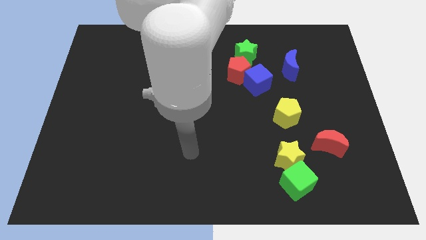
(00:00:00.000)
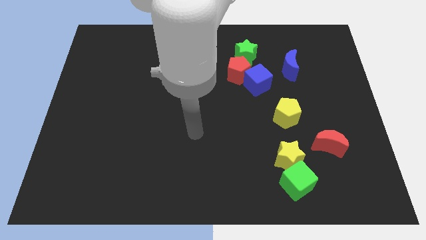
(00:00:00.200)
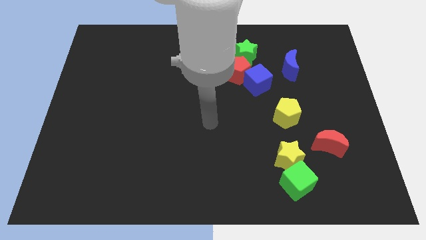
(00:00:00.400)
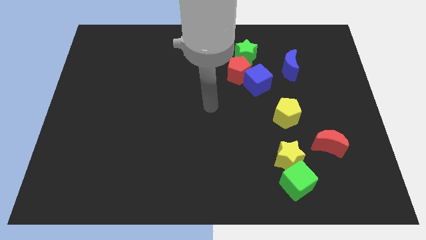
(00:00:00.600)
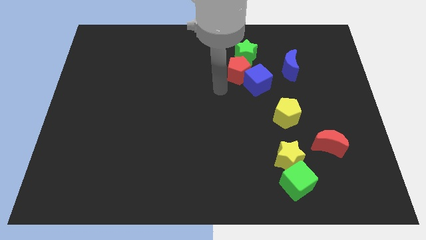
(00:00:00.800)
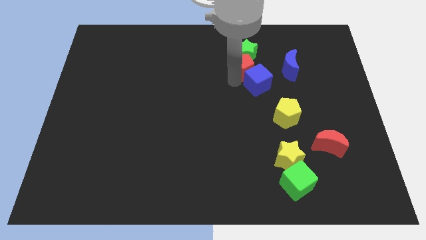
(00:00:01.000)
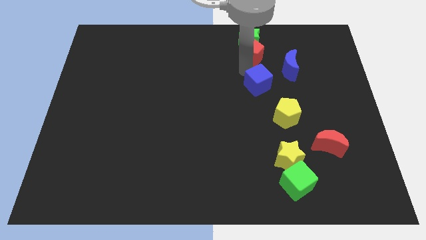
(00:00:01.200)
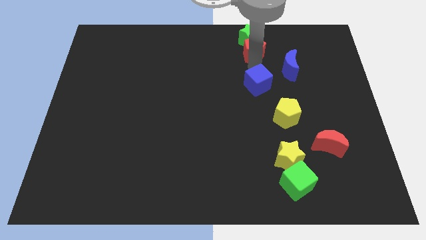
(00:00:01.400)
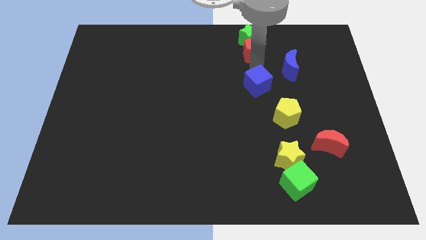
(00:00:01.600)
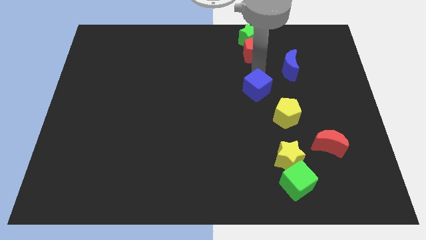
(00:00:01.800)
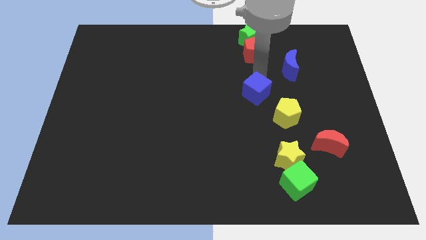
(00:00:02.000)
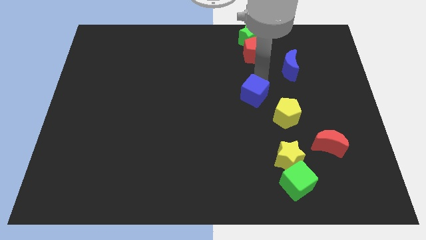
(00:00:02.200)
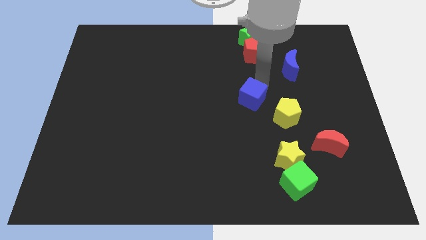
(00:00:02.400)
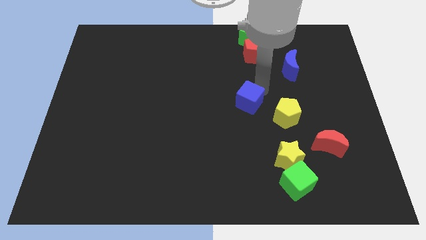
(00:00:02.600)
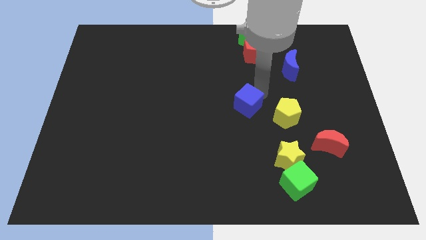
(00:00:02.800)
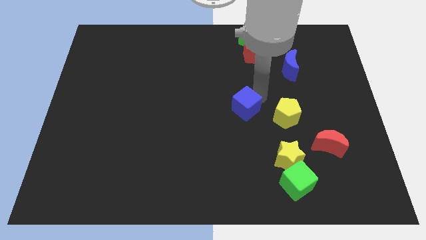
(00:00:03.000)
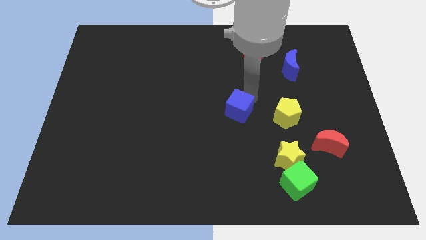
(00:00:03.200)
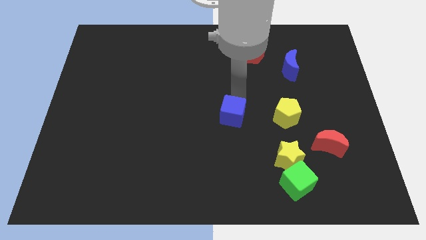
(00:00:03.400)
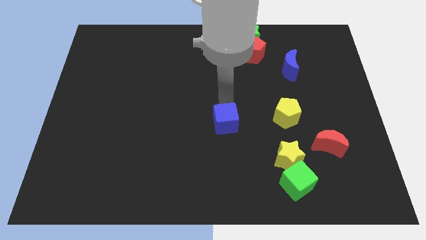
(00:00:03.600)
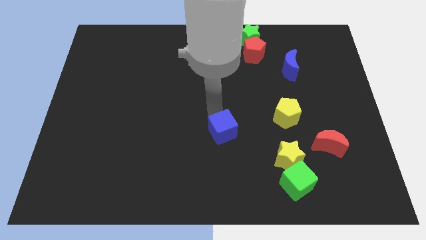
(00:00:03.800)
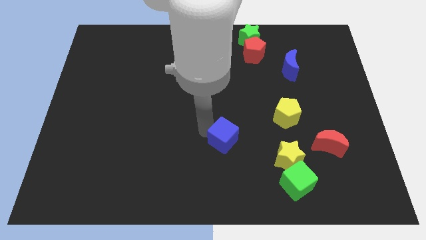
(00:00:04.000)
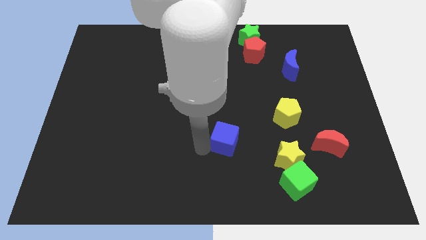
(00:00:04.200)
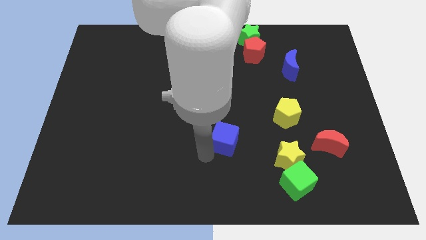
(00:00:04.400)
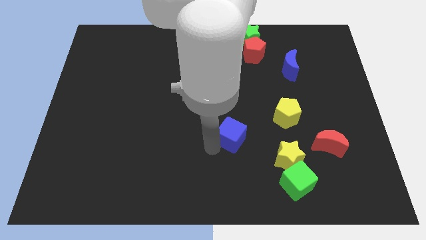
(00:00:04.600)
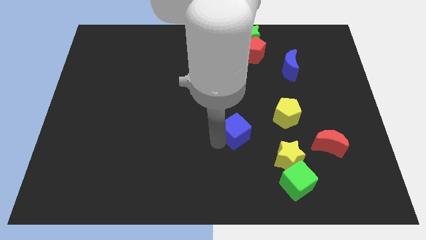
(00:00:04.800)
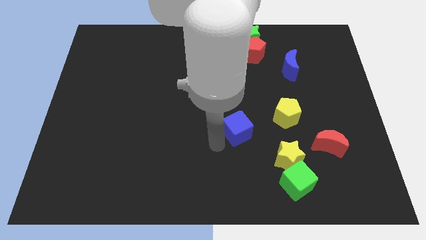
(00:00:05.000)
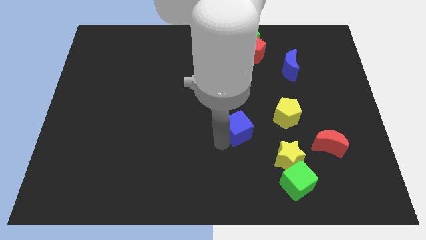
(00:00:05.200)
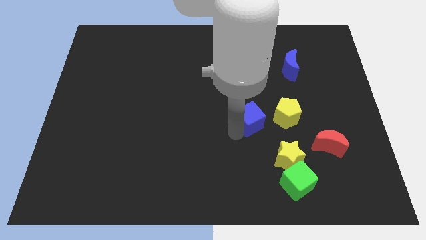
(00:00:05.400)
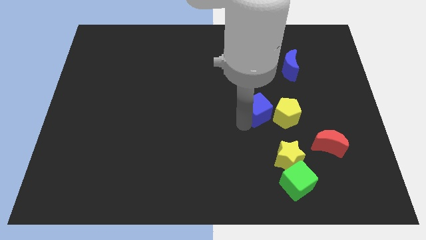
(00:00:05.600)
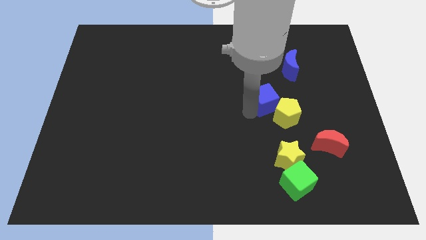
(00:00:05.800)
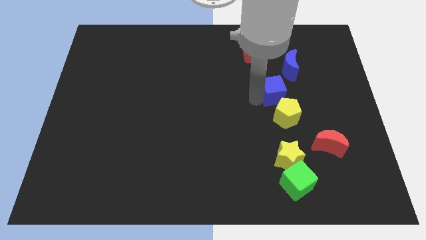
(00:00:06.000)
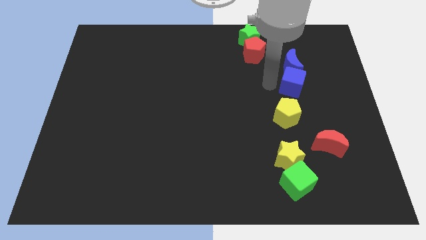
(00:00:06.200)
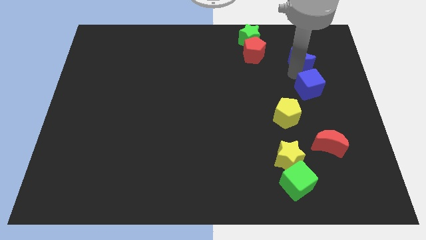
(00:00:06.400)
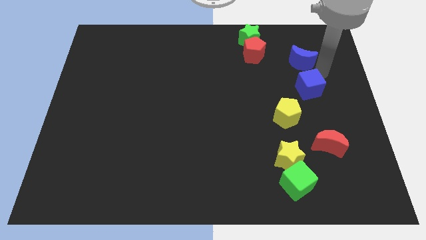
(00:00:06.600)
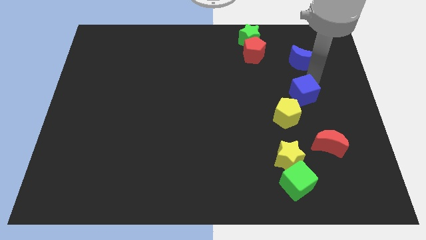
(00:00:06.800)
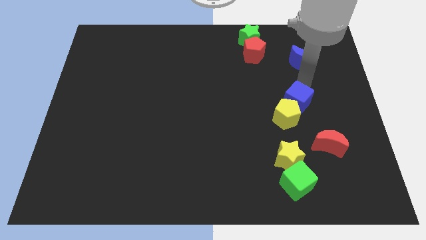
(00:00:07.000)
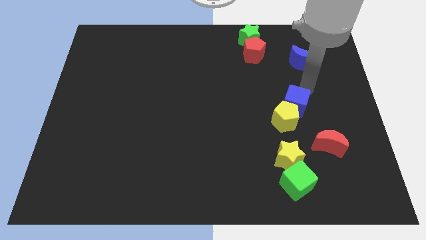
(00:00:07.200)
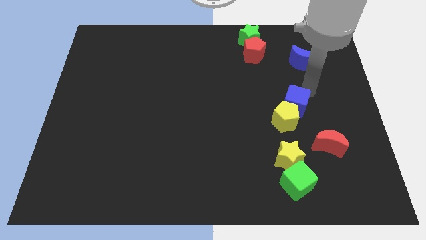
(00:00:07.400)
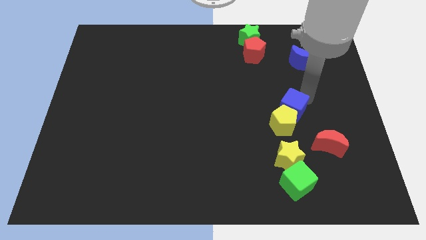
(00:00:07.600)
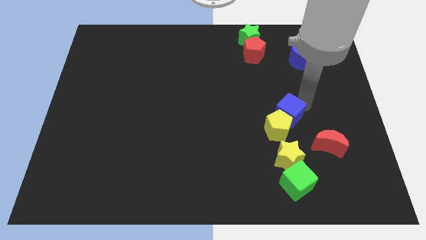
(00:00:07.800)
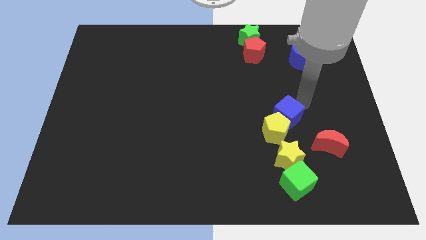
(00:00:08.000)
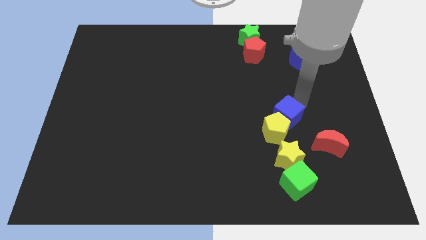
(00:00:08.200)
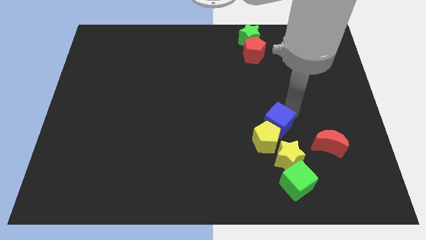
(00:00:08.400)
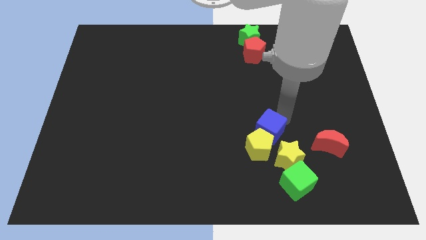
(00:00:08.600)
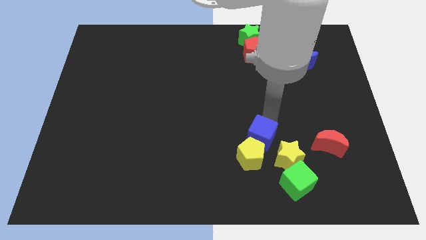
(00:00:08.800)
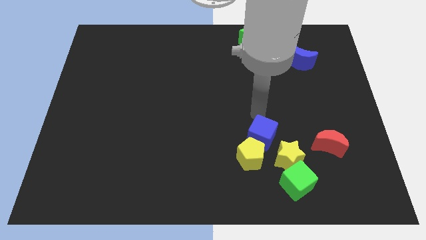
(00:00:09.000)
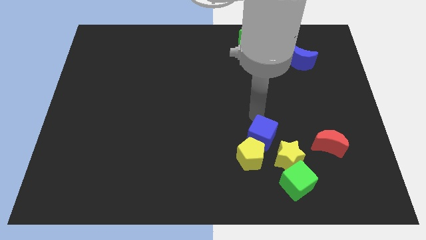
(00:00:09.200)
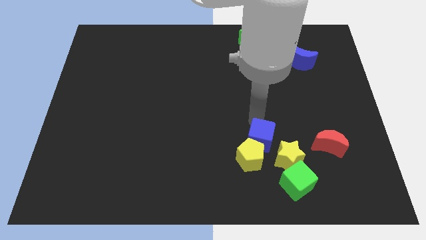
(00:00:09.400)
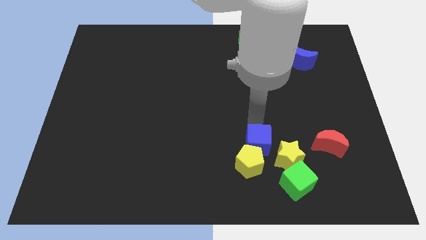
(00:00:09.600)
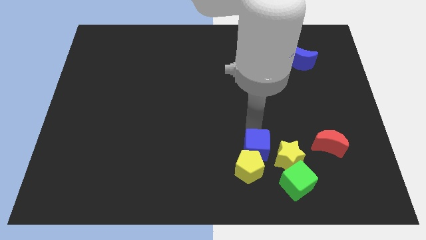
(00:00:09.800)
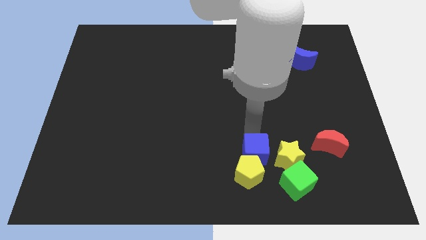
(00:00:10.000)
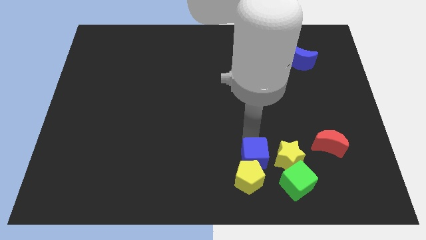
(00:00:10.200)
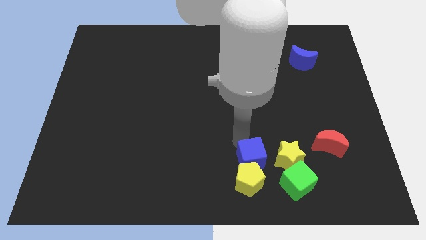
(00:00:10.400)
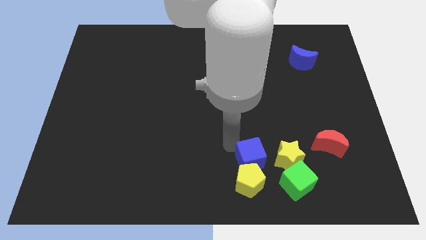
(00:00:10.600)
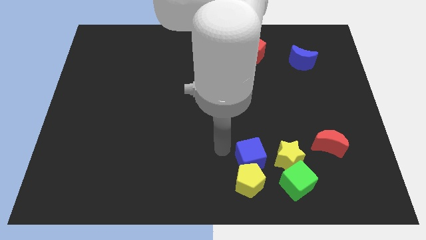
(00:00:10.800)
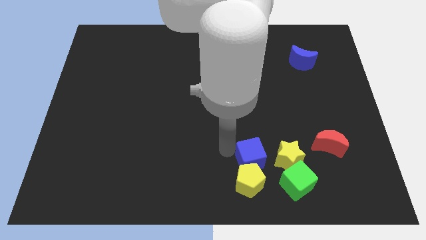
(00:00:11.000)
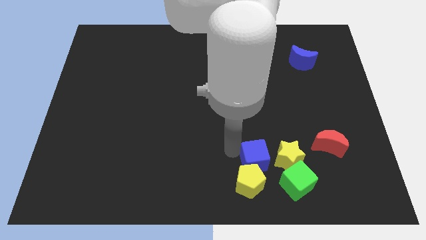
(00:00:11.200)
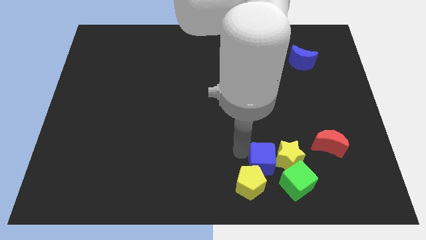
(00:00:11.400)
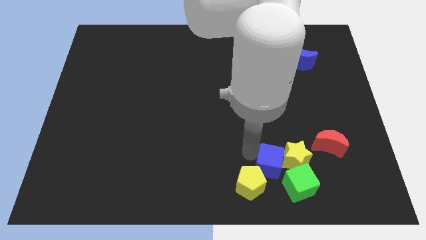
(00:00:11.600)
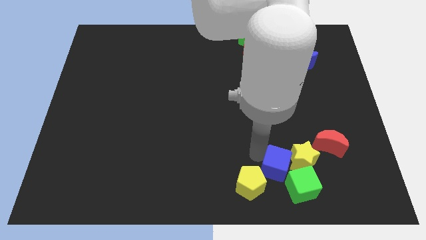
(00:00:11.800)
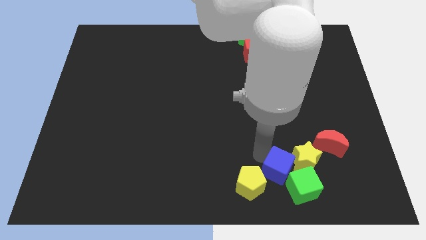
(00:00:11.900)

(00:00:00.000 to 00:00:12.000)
push the blue cube towards the green cube
